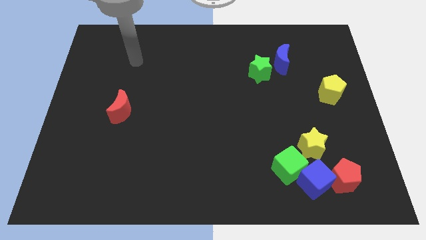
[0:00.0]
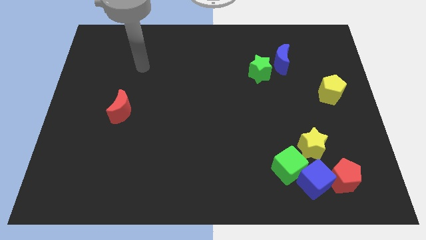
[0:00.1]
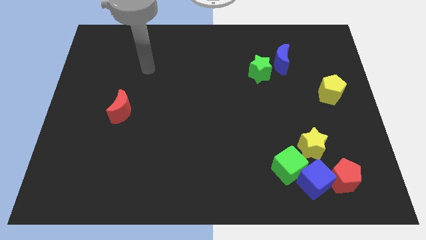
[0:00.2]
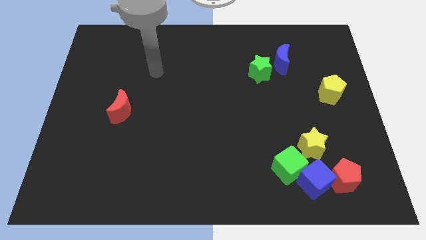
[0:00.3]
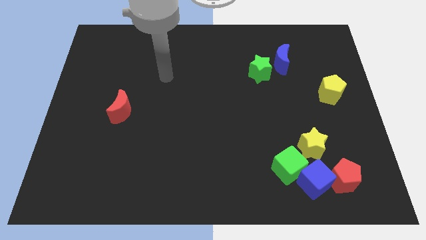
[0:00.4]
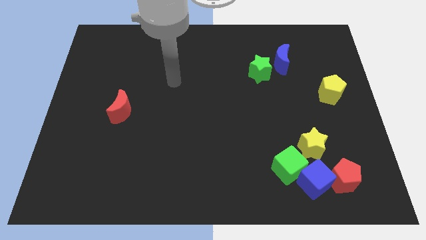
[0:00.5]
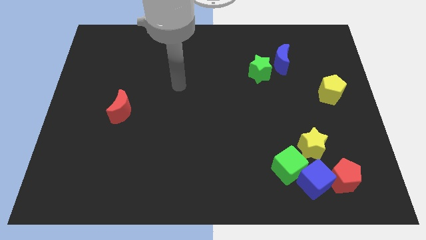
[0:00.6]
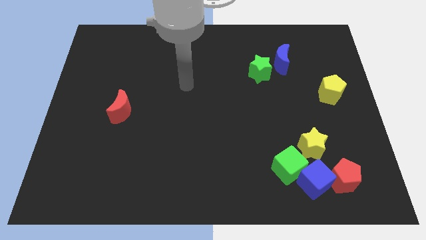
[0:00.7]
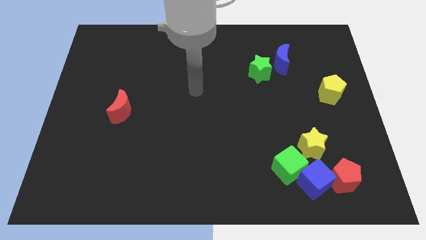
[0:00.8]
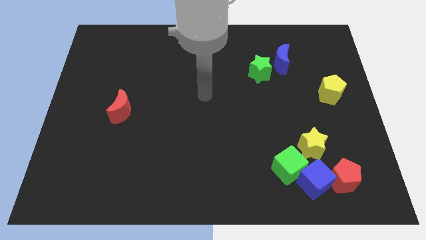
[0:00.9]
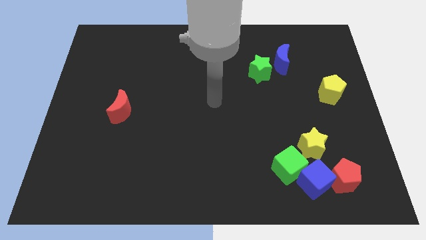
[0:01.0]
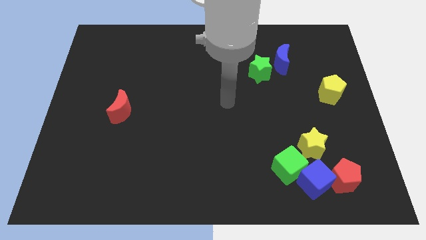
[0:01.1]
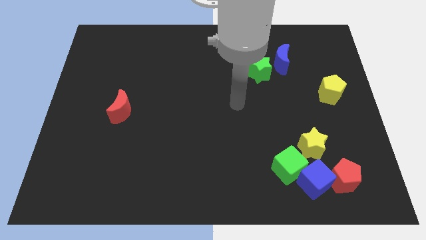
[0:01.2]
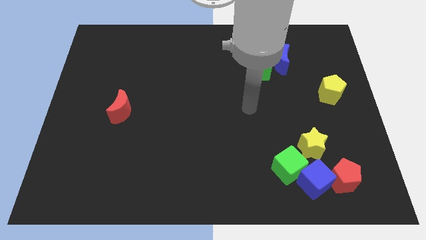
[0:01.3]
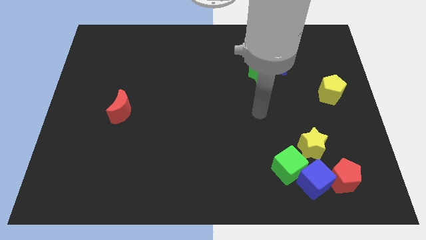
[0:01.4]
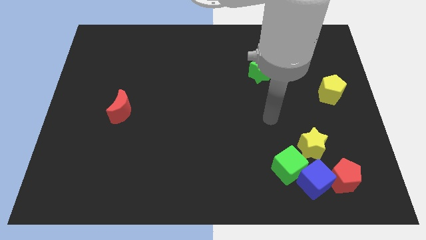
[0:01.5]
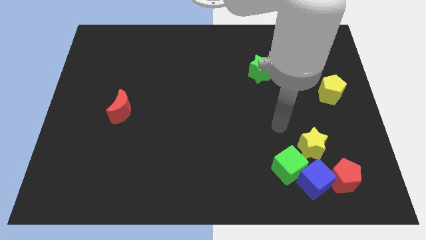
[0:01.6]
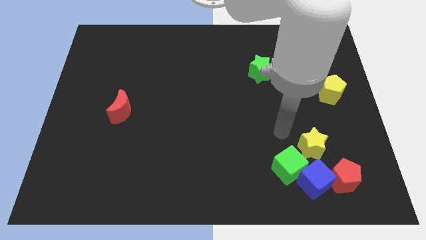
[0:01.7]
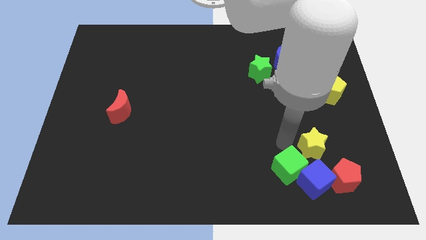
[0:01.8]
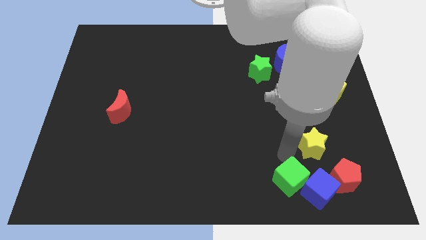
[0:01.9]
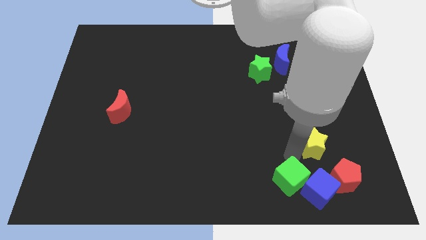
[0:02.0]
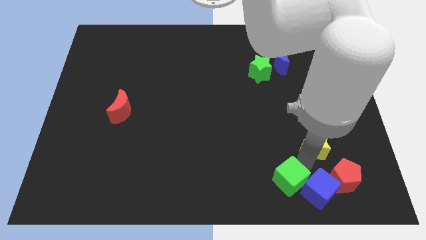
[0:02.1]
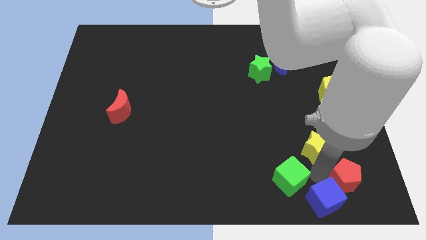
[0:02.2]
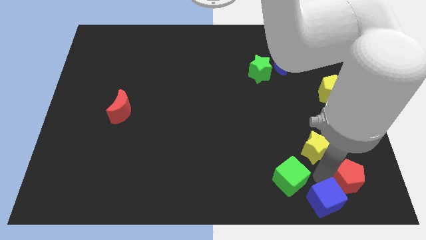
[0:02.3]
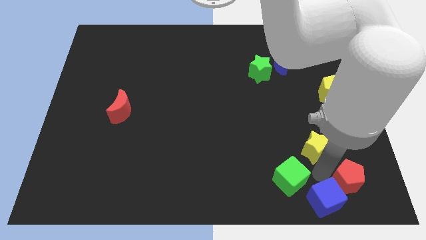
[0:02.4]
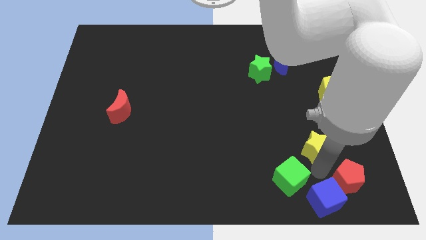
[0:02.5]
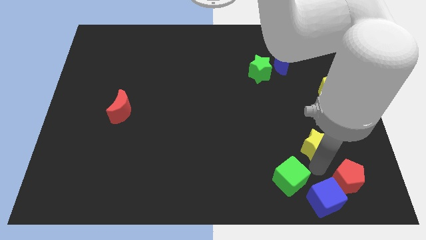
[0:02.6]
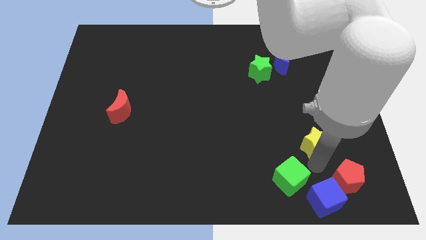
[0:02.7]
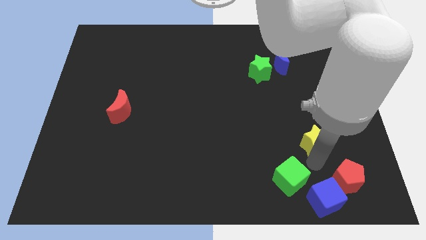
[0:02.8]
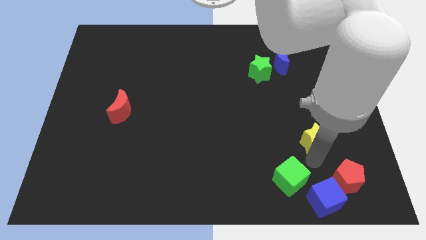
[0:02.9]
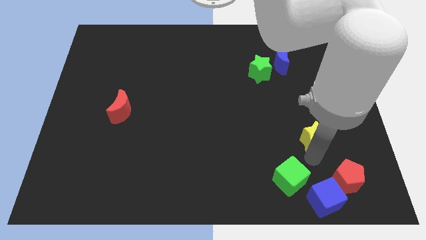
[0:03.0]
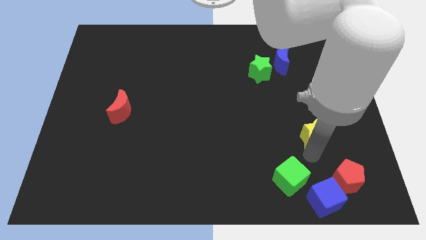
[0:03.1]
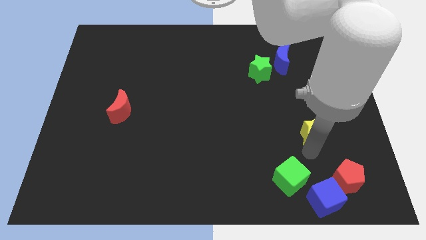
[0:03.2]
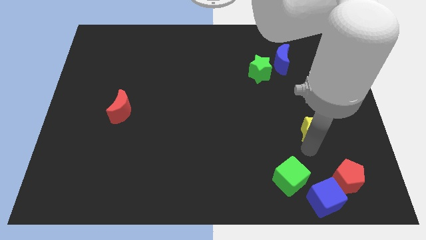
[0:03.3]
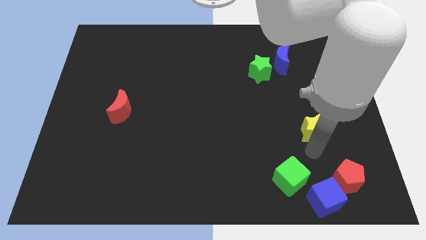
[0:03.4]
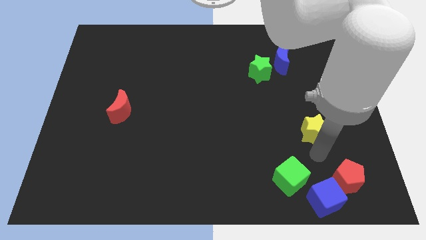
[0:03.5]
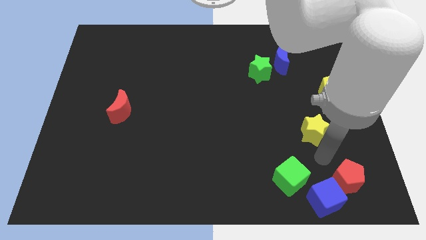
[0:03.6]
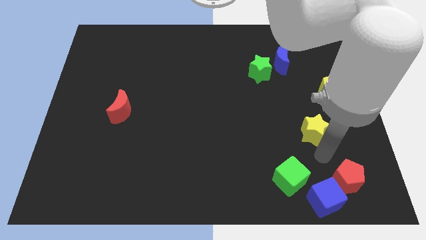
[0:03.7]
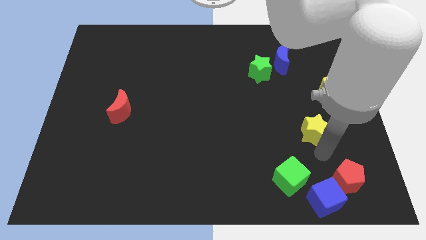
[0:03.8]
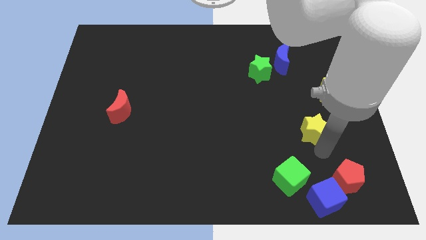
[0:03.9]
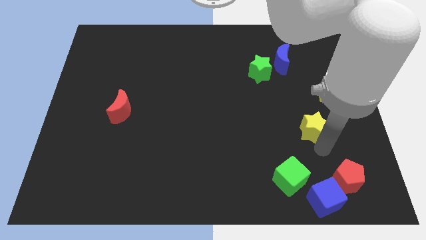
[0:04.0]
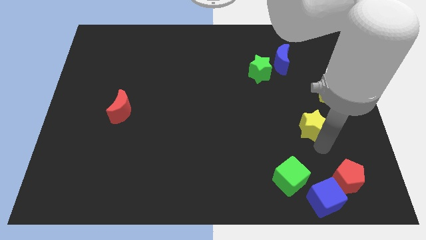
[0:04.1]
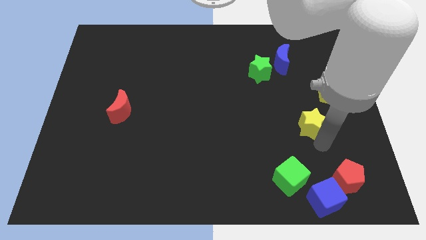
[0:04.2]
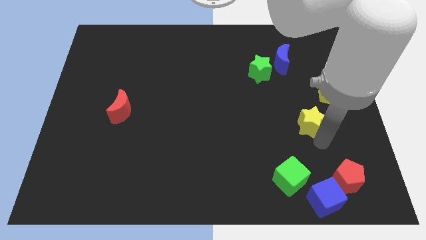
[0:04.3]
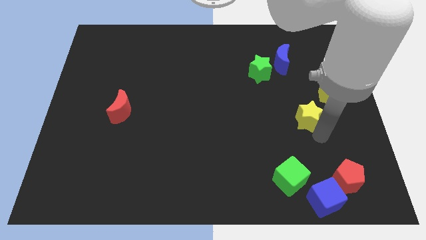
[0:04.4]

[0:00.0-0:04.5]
push the yellow star a bit up

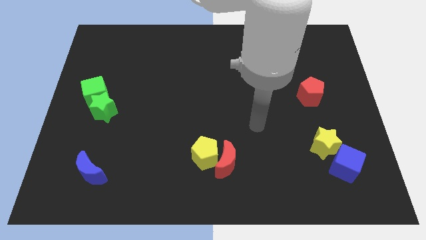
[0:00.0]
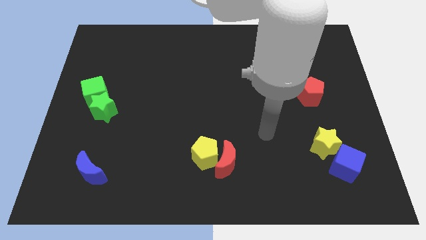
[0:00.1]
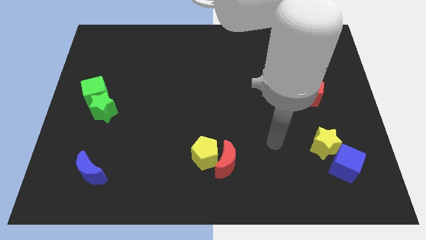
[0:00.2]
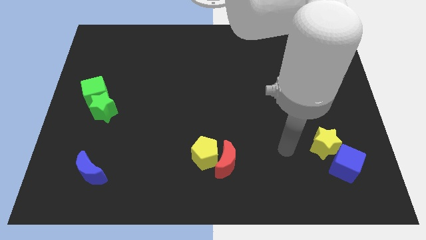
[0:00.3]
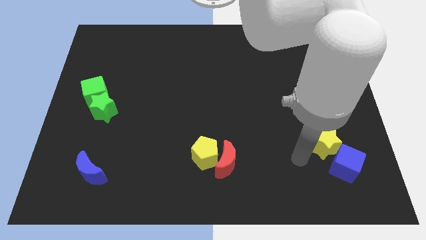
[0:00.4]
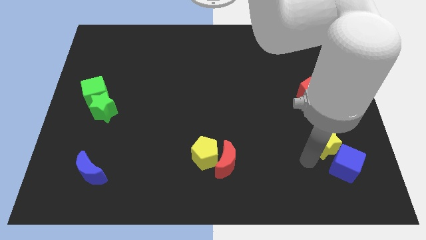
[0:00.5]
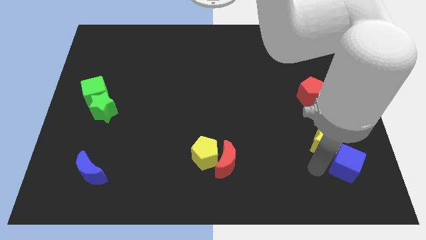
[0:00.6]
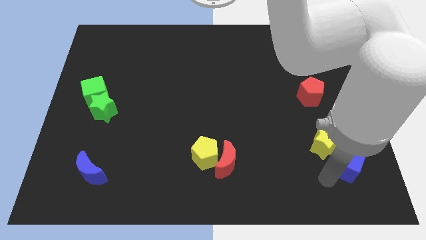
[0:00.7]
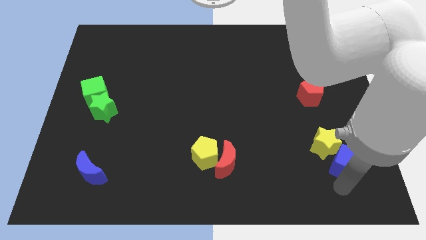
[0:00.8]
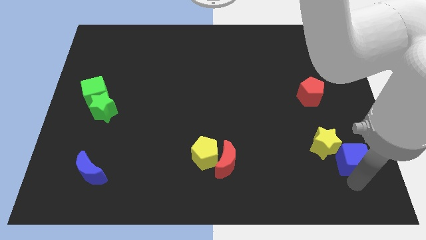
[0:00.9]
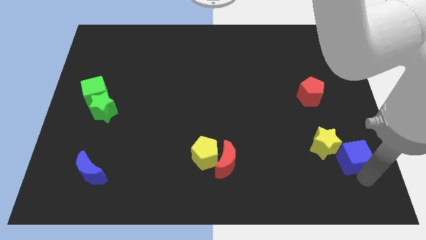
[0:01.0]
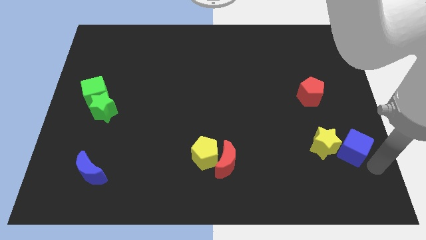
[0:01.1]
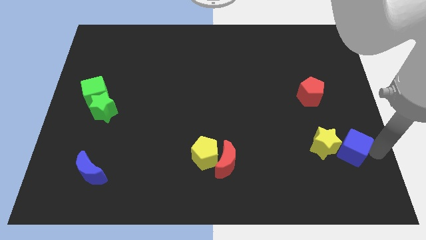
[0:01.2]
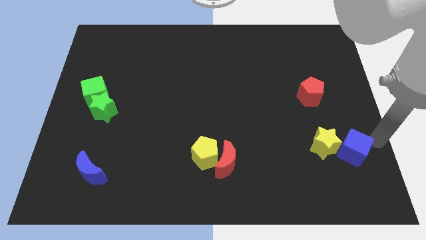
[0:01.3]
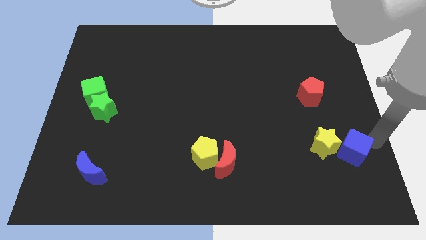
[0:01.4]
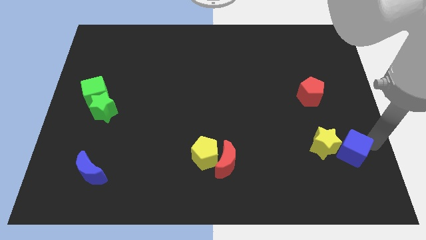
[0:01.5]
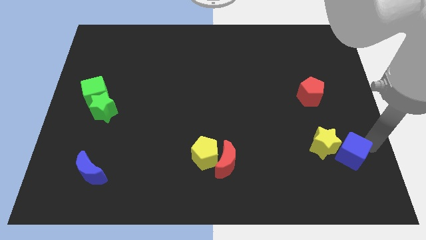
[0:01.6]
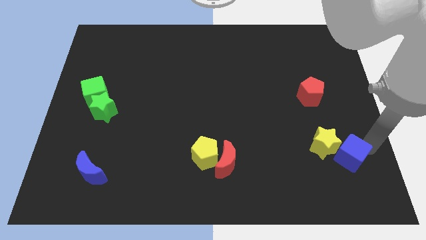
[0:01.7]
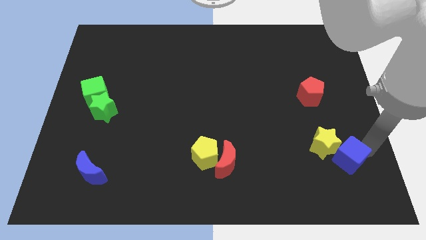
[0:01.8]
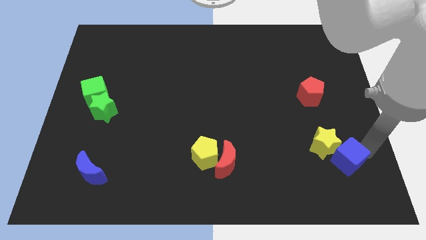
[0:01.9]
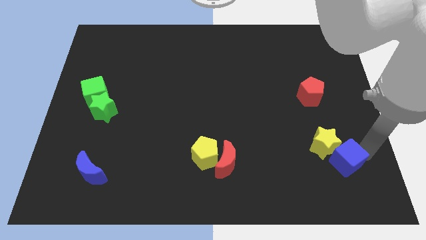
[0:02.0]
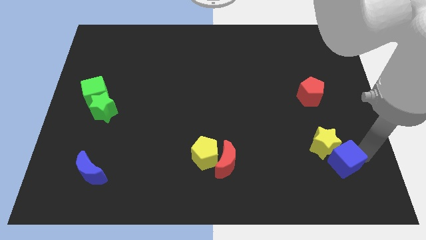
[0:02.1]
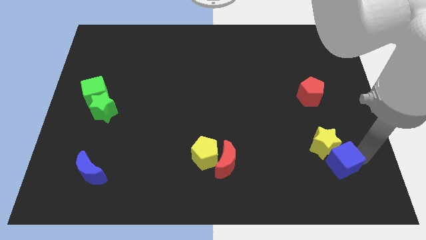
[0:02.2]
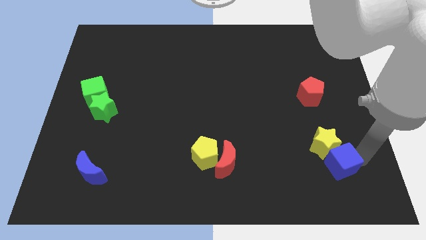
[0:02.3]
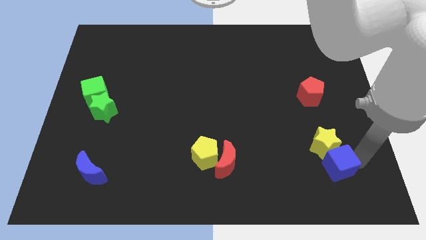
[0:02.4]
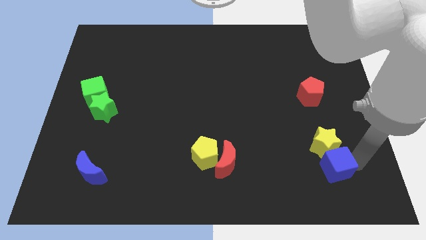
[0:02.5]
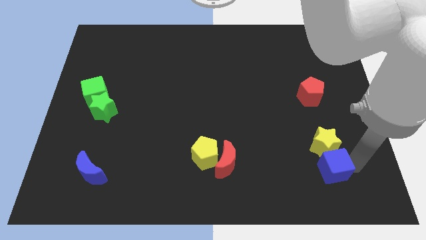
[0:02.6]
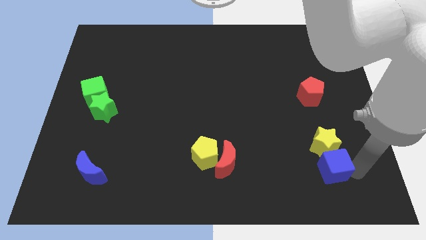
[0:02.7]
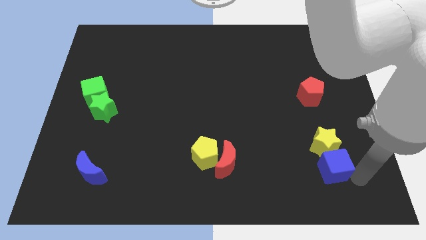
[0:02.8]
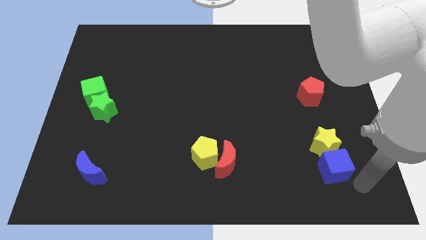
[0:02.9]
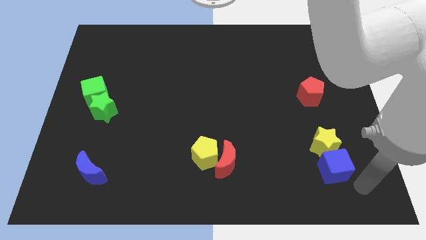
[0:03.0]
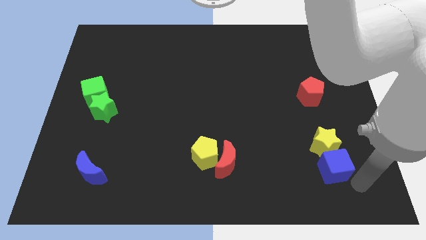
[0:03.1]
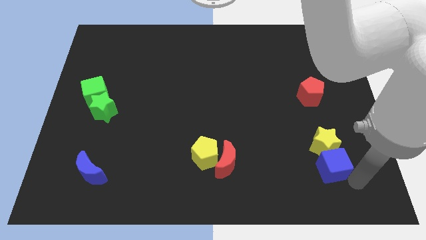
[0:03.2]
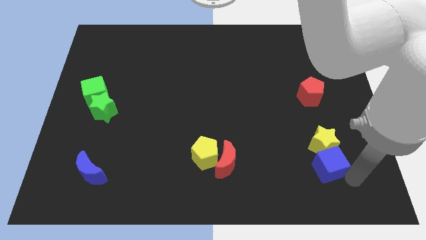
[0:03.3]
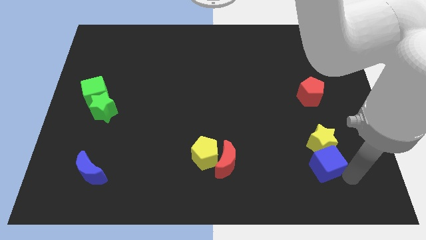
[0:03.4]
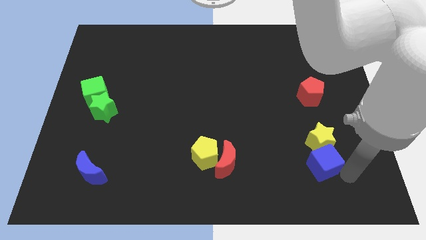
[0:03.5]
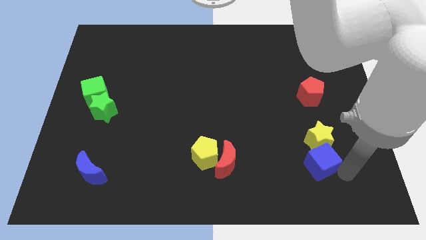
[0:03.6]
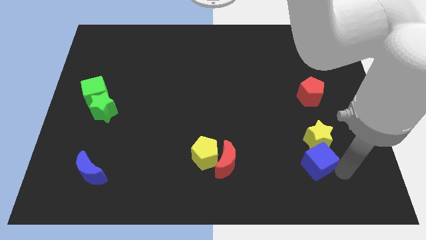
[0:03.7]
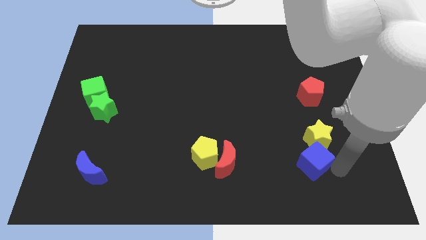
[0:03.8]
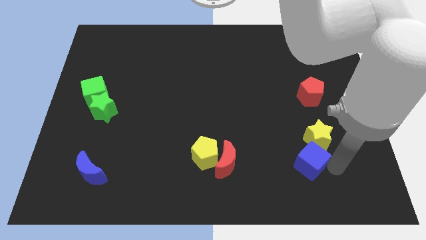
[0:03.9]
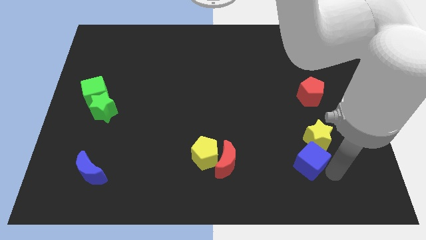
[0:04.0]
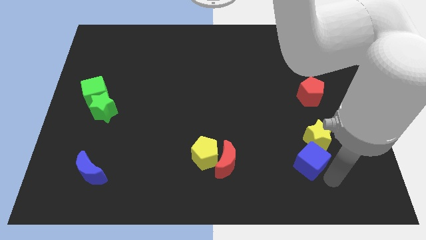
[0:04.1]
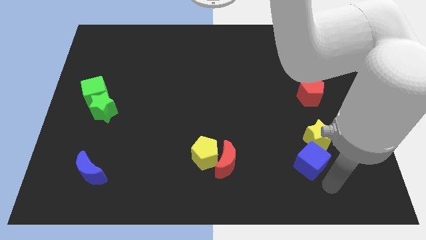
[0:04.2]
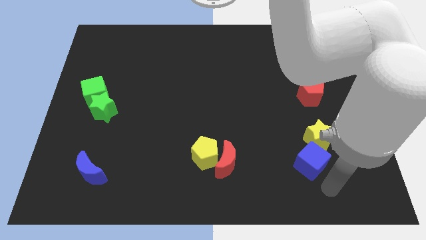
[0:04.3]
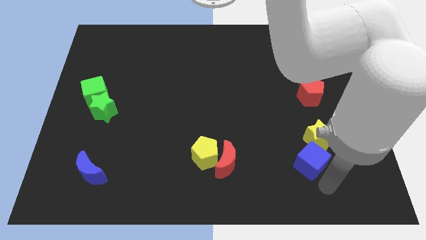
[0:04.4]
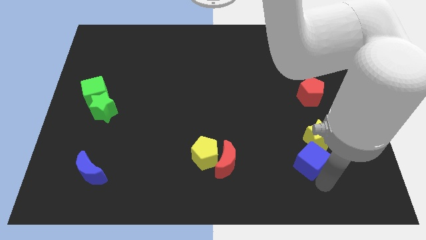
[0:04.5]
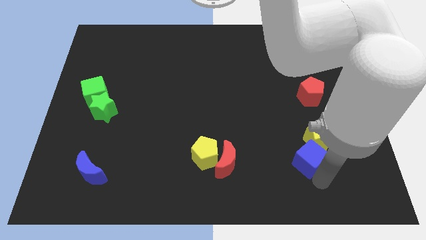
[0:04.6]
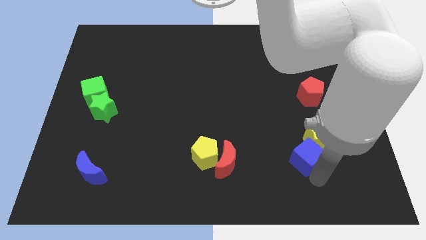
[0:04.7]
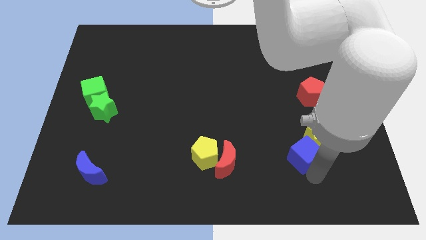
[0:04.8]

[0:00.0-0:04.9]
slide the blue cube up and left diagonally slightly
